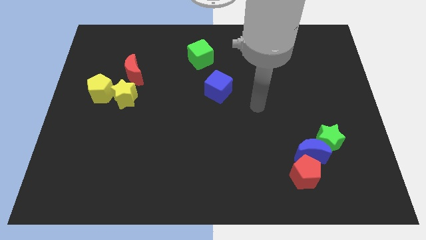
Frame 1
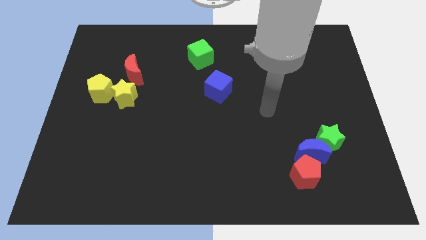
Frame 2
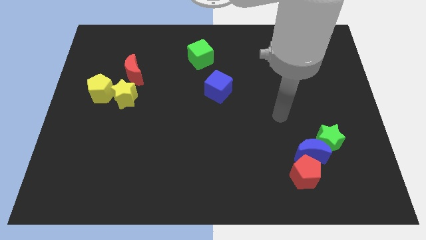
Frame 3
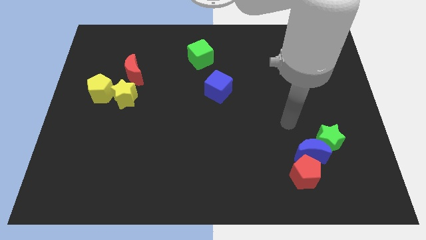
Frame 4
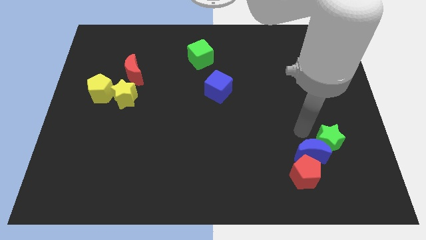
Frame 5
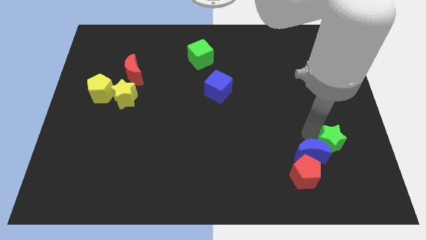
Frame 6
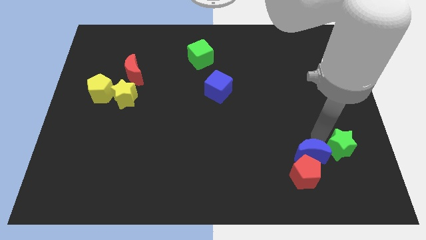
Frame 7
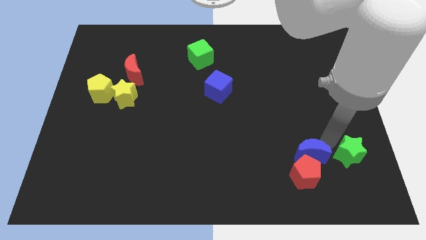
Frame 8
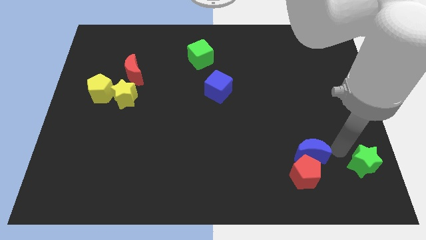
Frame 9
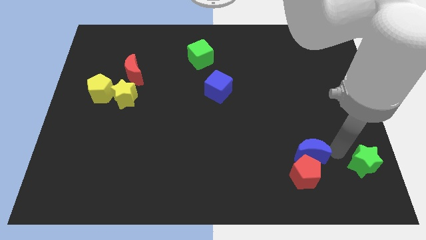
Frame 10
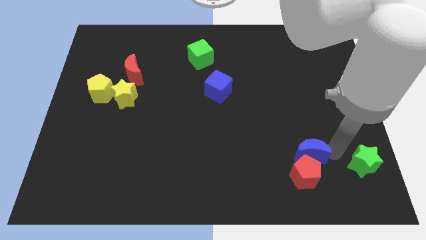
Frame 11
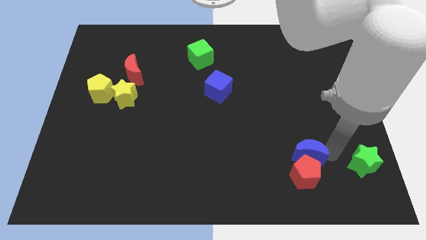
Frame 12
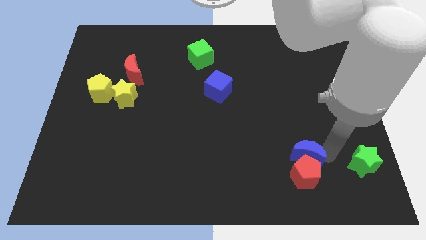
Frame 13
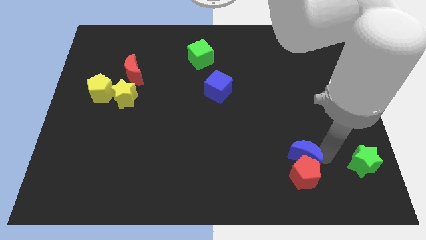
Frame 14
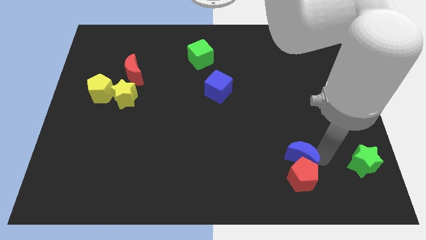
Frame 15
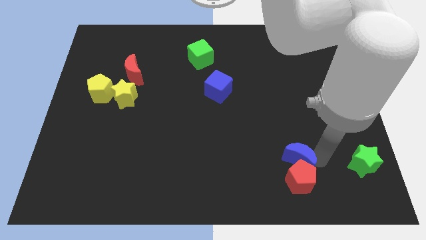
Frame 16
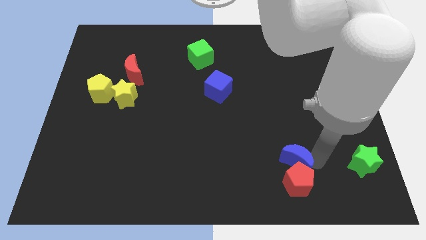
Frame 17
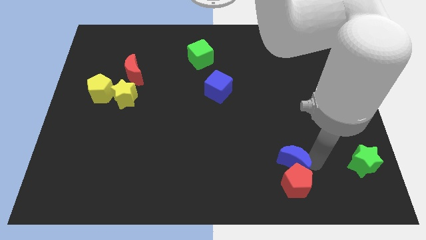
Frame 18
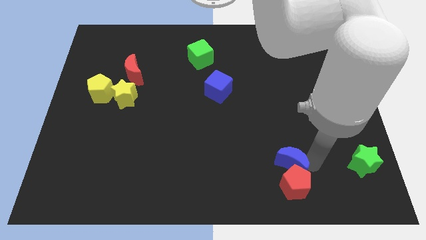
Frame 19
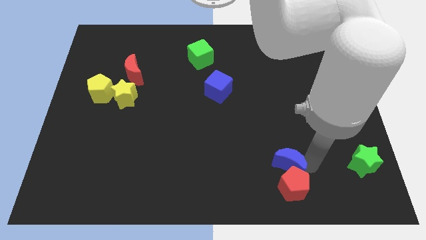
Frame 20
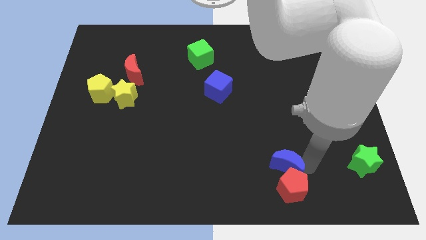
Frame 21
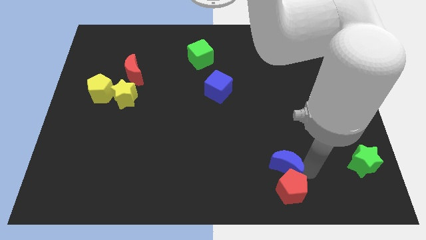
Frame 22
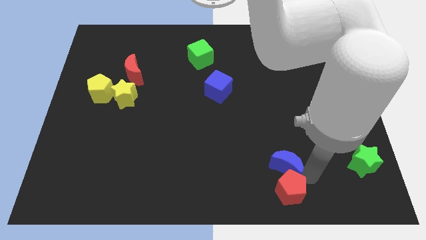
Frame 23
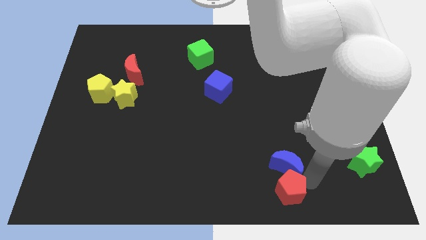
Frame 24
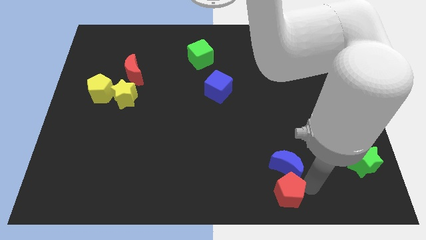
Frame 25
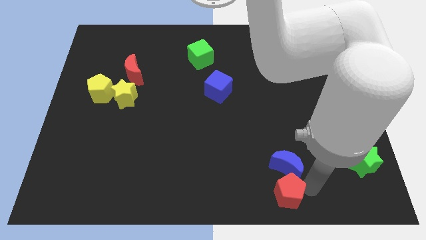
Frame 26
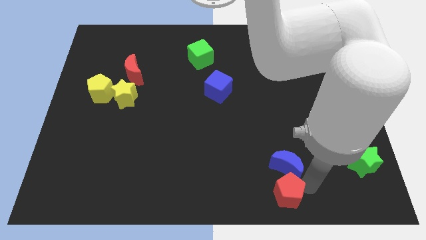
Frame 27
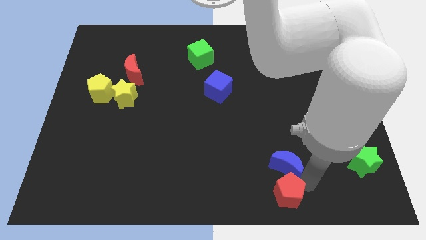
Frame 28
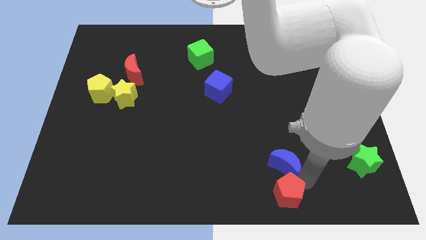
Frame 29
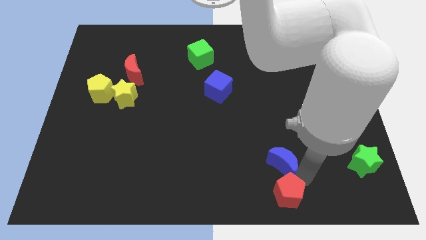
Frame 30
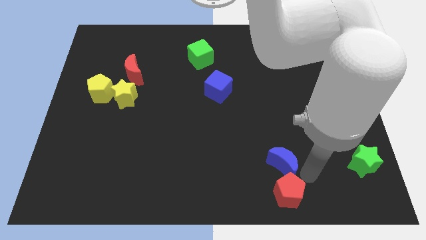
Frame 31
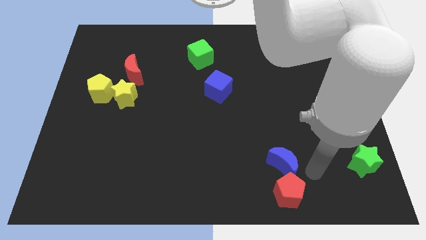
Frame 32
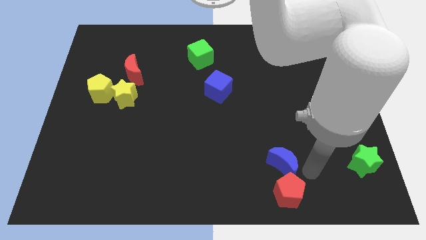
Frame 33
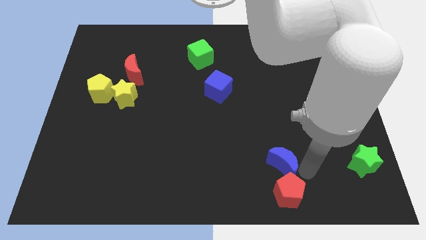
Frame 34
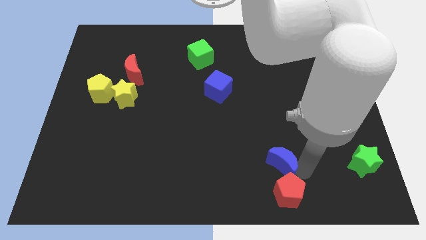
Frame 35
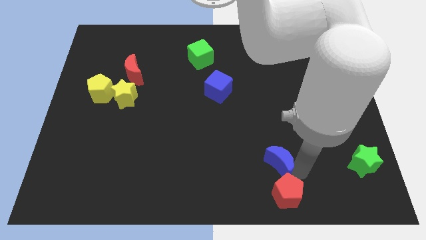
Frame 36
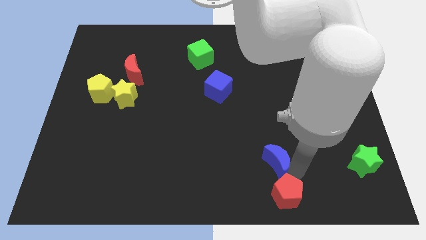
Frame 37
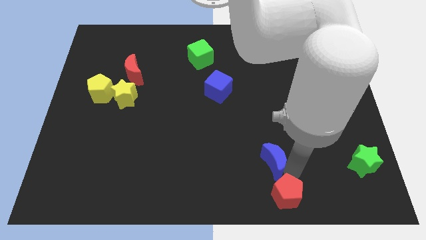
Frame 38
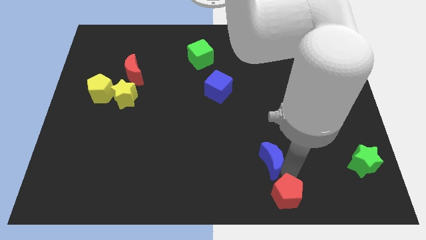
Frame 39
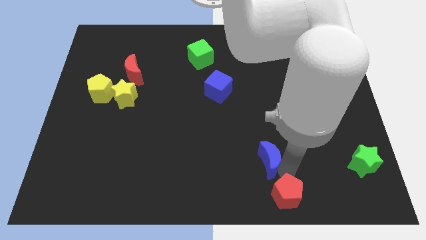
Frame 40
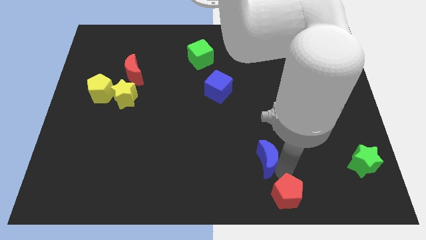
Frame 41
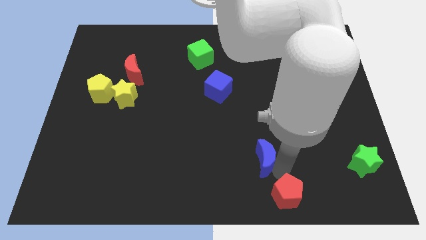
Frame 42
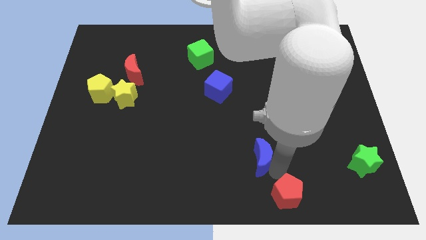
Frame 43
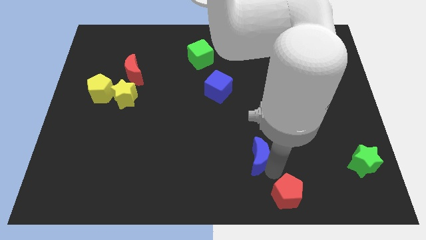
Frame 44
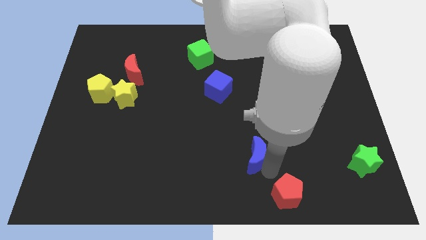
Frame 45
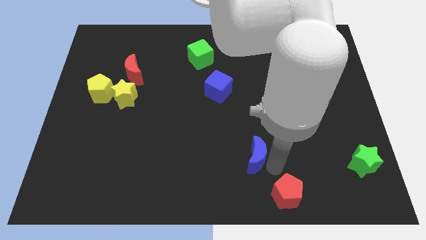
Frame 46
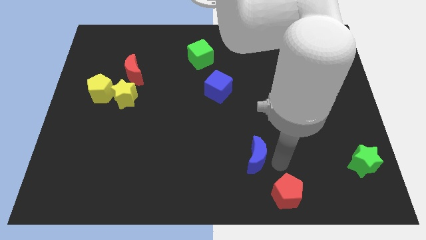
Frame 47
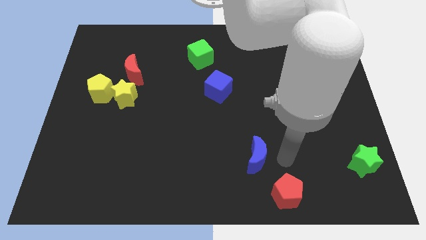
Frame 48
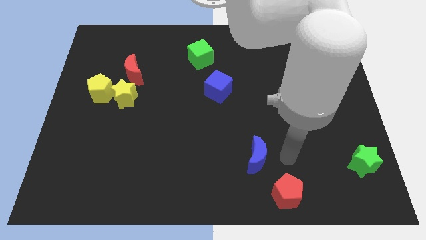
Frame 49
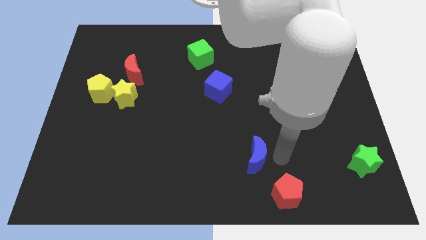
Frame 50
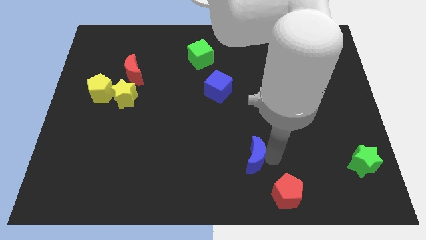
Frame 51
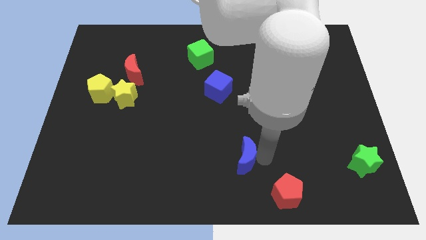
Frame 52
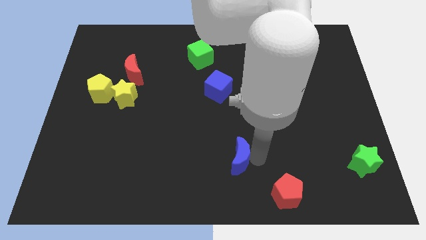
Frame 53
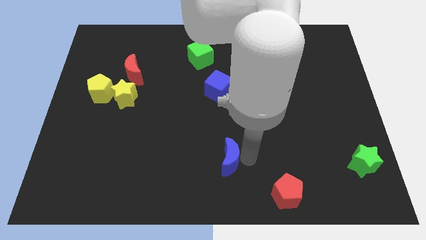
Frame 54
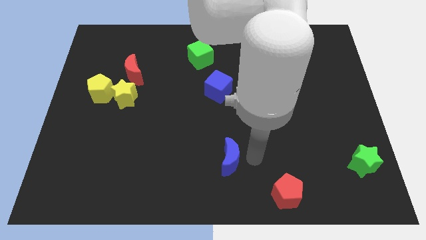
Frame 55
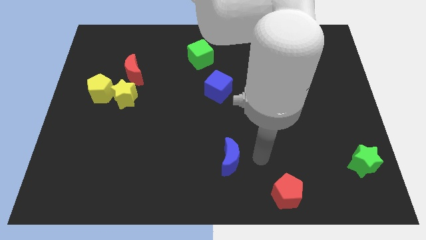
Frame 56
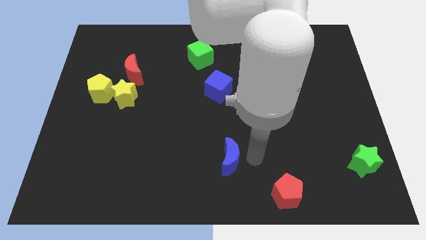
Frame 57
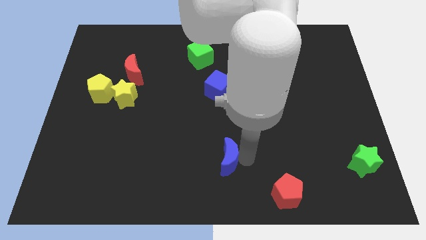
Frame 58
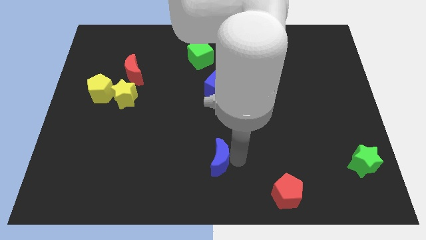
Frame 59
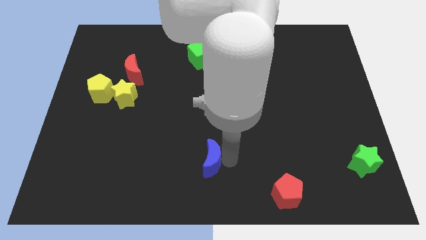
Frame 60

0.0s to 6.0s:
move the blue moon to the left

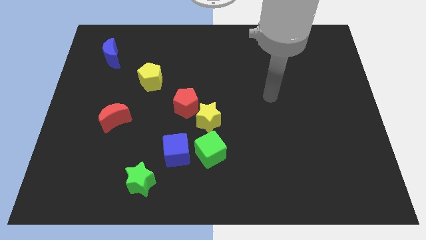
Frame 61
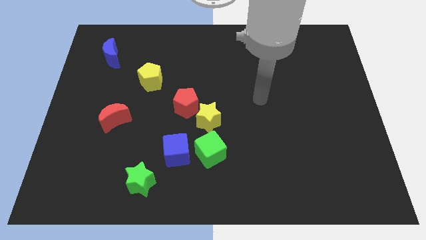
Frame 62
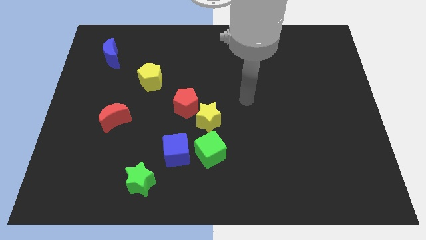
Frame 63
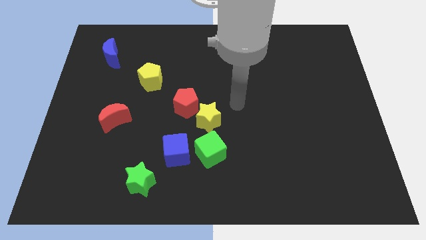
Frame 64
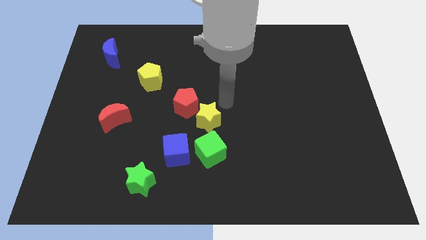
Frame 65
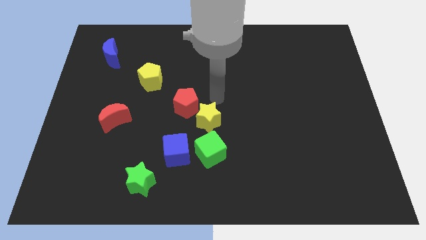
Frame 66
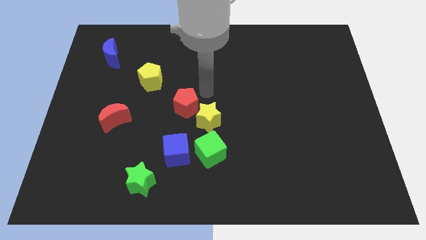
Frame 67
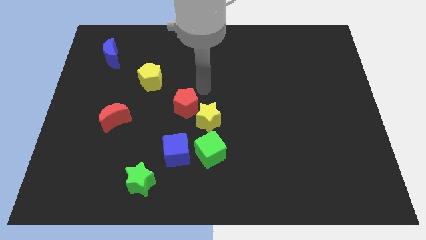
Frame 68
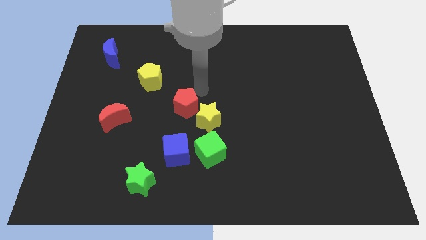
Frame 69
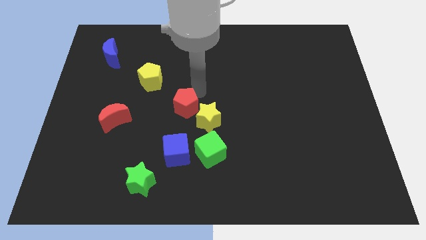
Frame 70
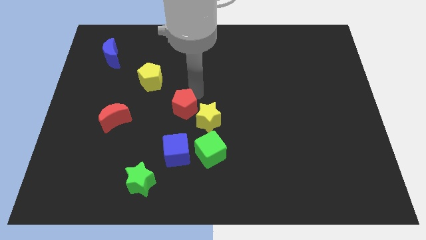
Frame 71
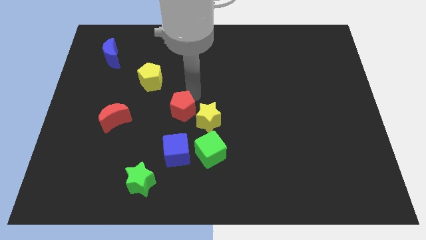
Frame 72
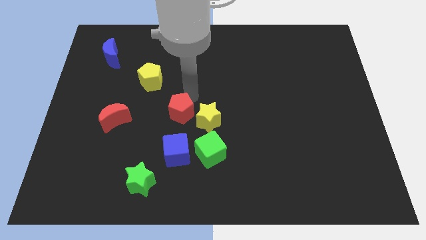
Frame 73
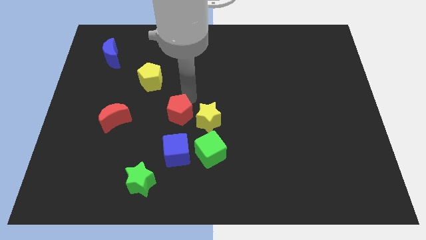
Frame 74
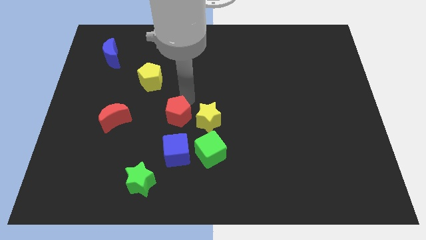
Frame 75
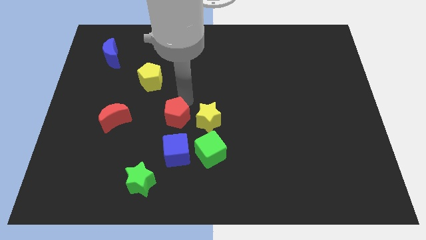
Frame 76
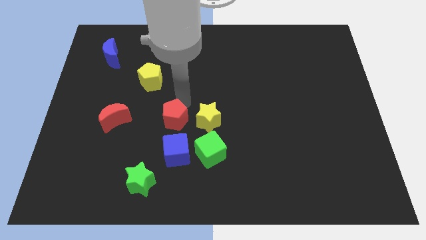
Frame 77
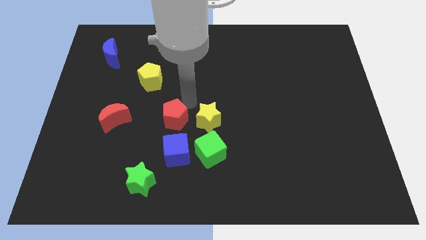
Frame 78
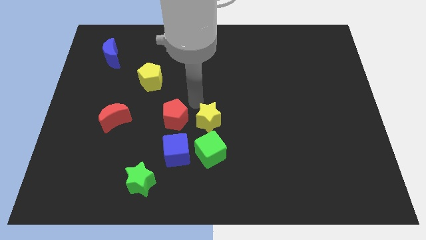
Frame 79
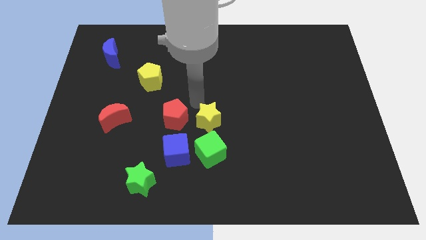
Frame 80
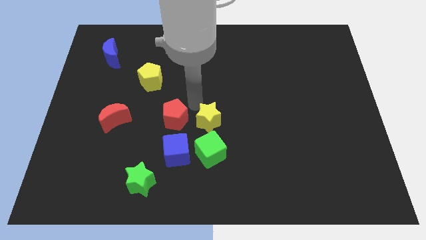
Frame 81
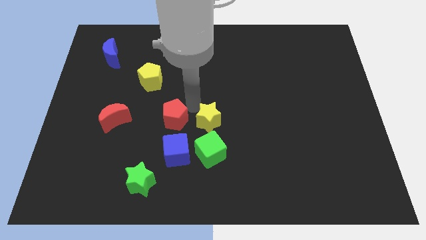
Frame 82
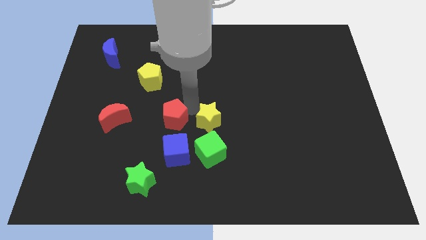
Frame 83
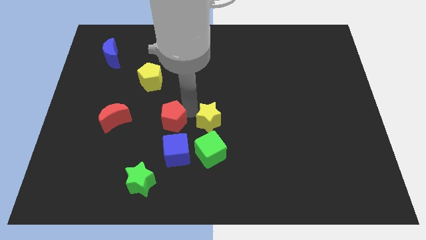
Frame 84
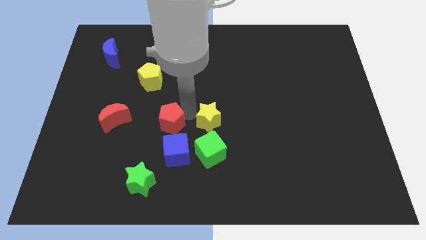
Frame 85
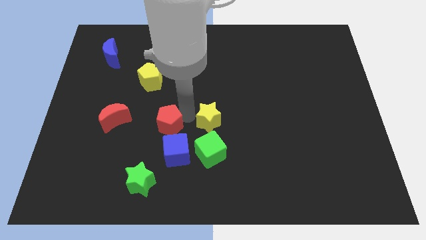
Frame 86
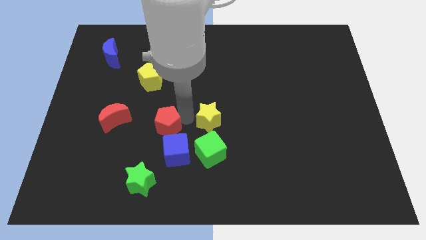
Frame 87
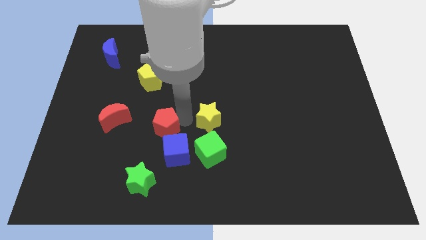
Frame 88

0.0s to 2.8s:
slide the red pentagon diagonally down and to the left slightly
